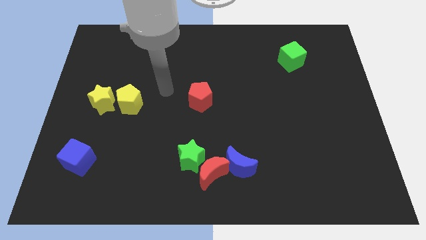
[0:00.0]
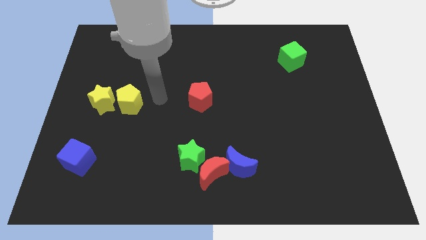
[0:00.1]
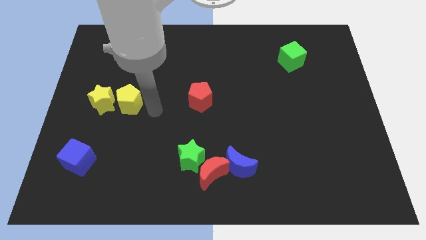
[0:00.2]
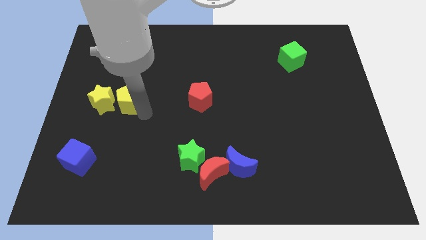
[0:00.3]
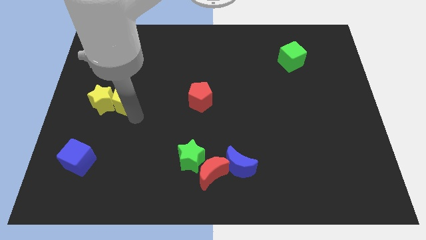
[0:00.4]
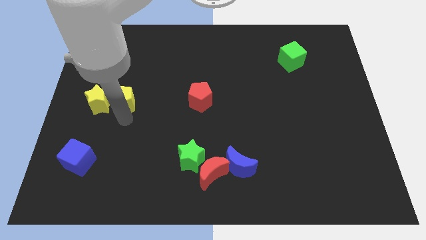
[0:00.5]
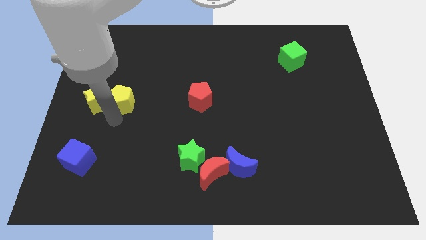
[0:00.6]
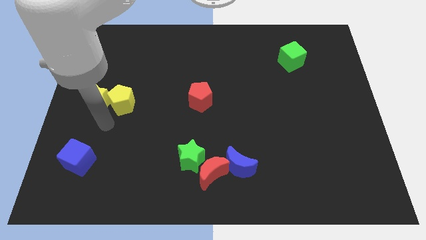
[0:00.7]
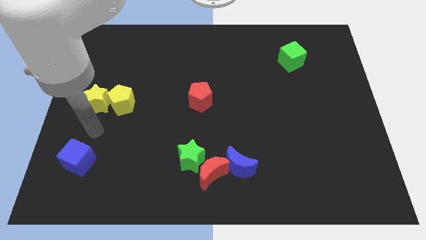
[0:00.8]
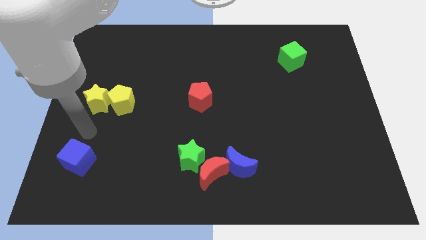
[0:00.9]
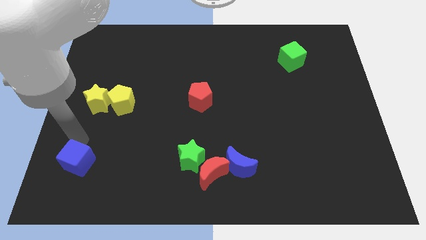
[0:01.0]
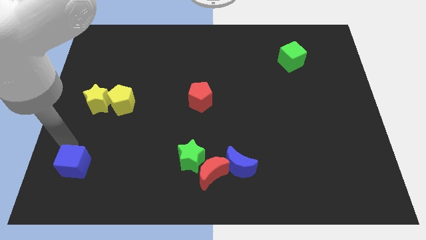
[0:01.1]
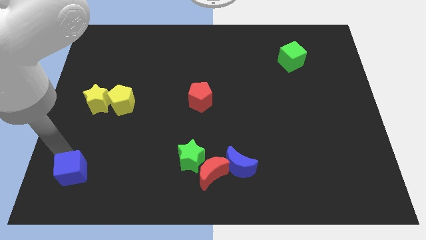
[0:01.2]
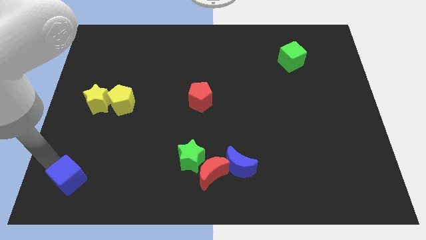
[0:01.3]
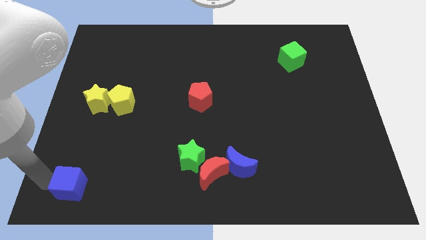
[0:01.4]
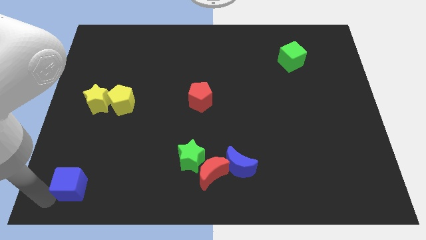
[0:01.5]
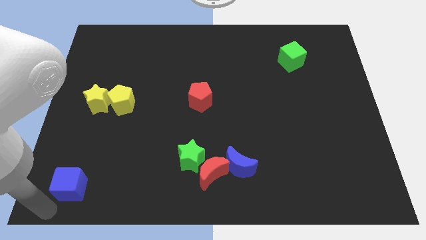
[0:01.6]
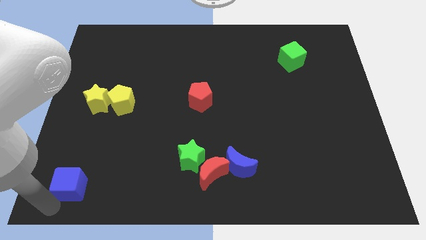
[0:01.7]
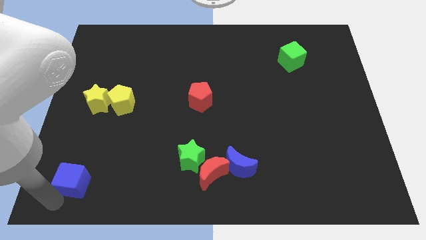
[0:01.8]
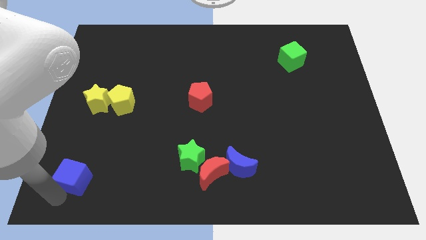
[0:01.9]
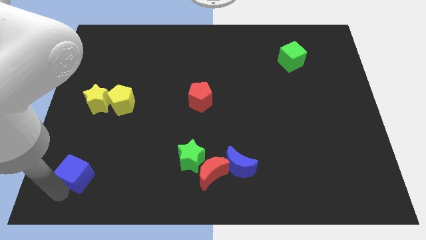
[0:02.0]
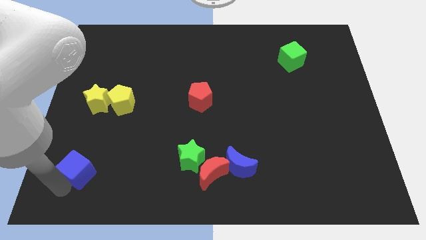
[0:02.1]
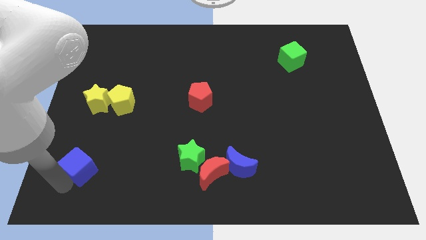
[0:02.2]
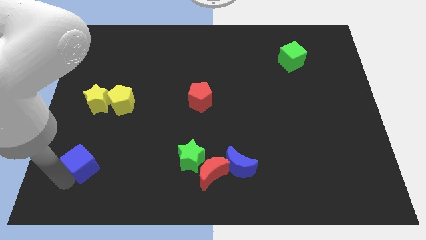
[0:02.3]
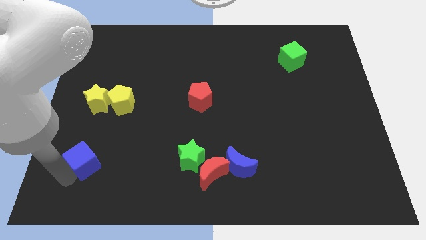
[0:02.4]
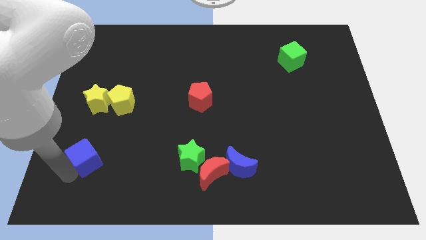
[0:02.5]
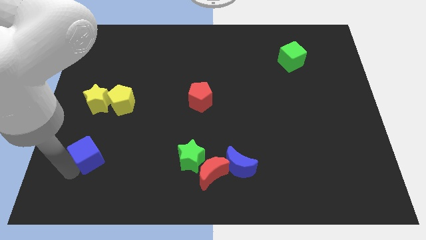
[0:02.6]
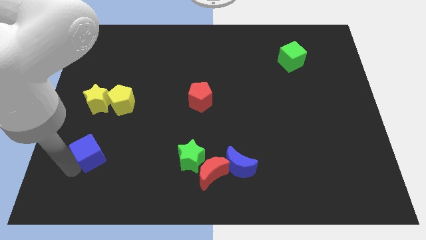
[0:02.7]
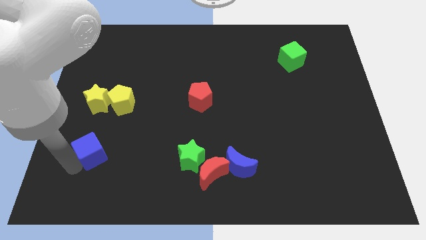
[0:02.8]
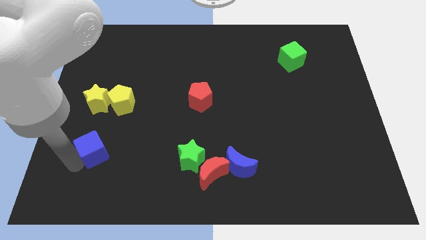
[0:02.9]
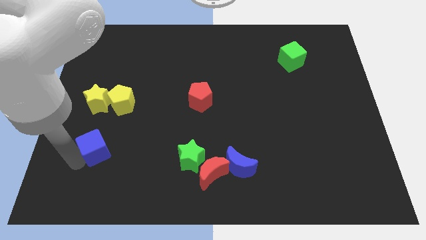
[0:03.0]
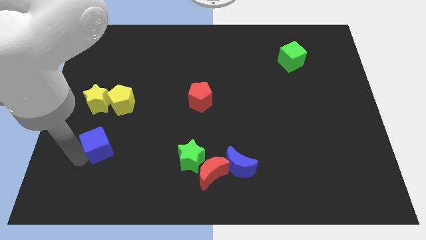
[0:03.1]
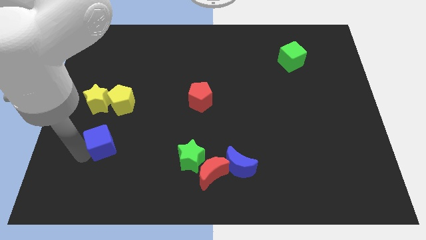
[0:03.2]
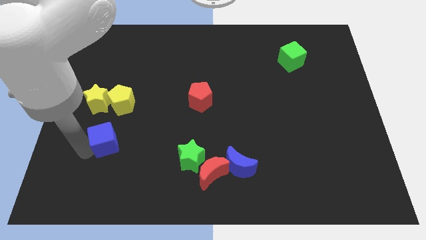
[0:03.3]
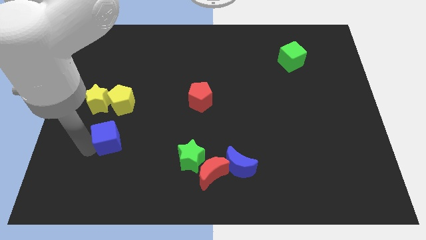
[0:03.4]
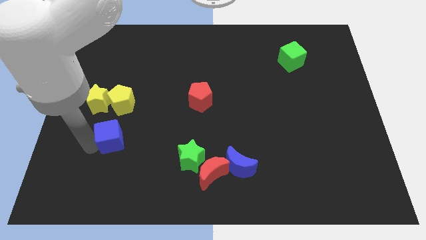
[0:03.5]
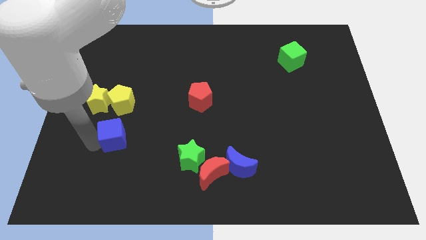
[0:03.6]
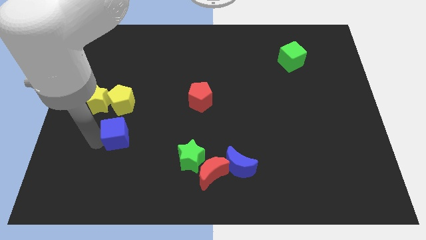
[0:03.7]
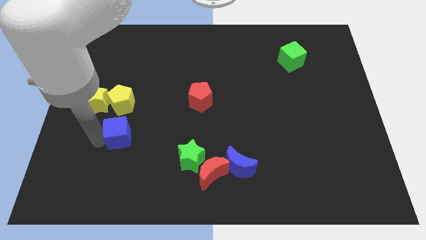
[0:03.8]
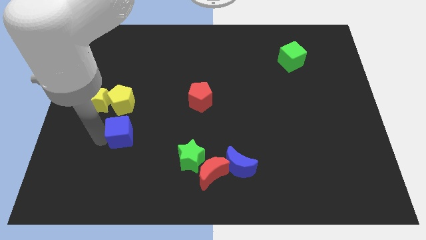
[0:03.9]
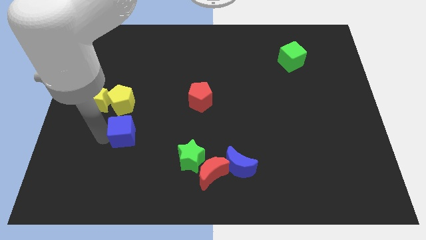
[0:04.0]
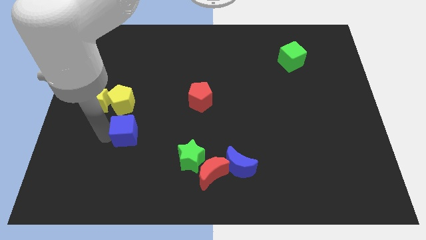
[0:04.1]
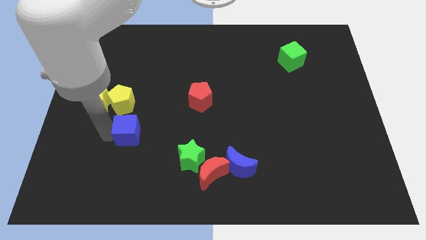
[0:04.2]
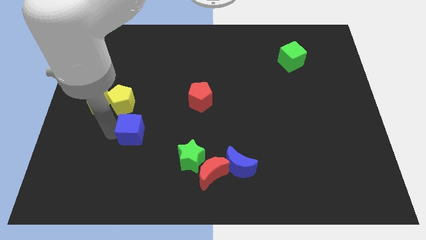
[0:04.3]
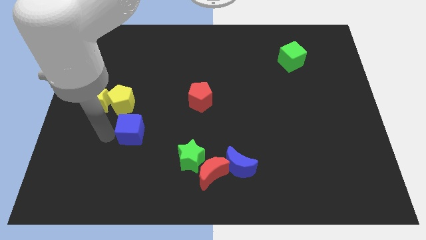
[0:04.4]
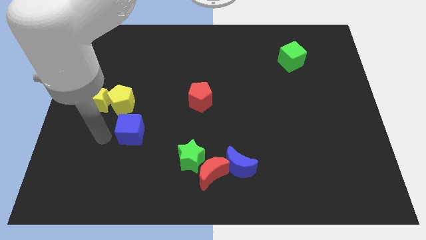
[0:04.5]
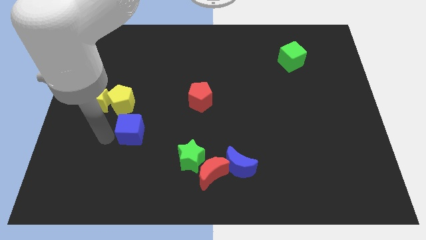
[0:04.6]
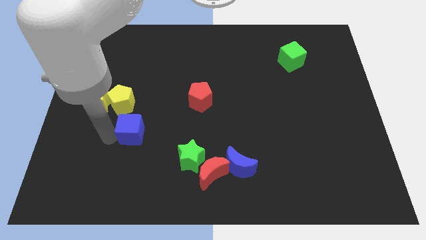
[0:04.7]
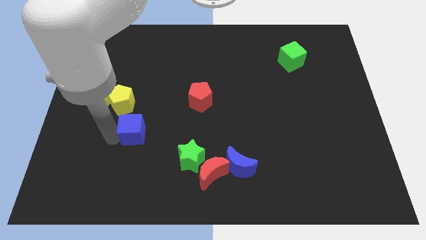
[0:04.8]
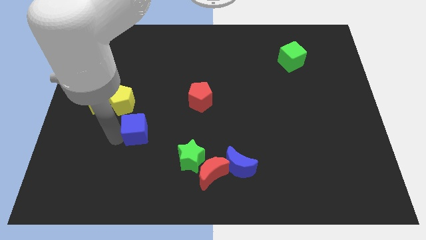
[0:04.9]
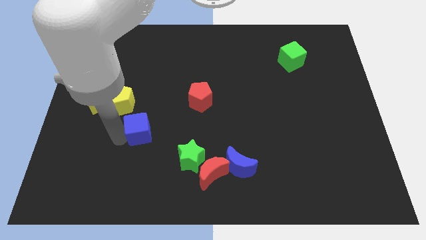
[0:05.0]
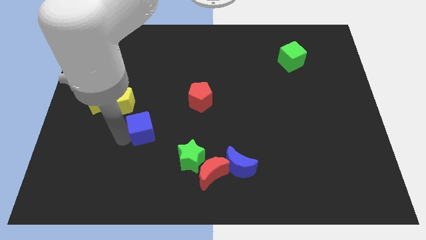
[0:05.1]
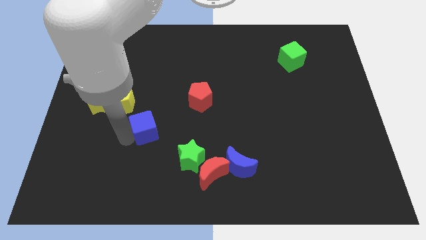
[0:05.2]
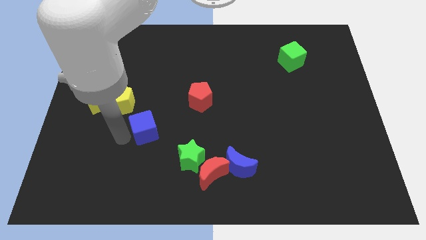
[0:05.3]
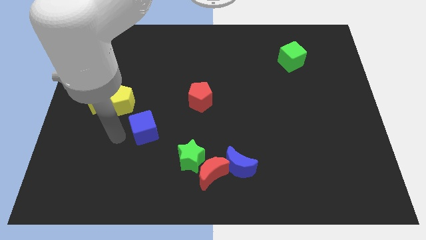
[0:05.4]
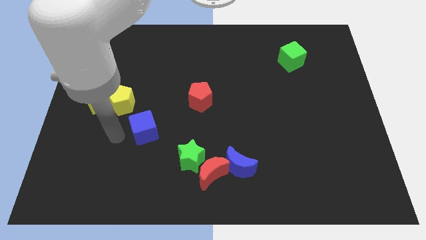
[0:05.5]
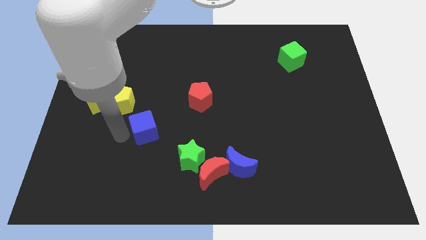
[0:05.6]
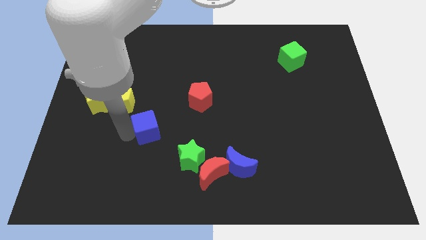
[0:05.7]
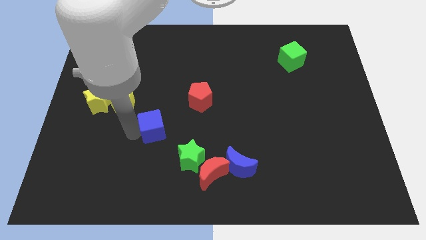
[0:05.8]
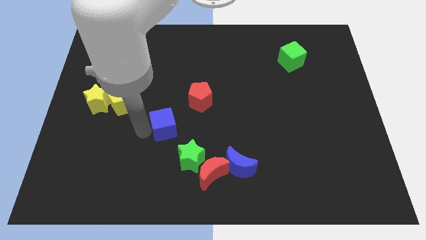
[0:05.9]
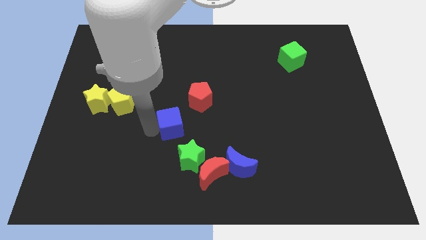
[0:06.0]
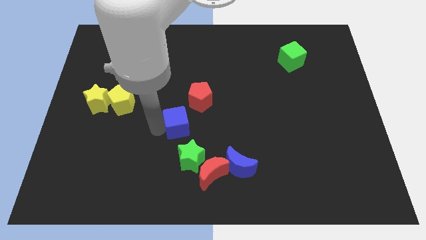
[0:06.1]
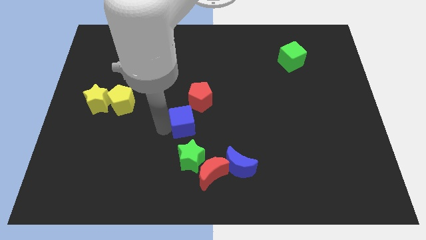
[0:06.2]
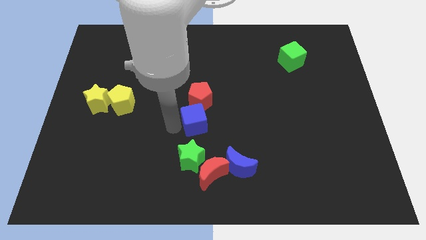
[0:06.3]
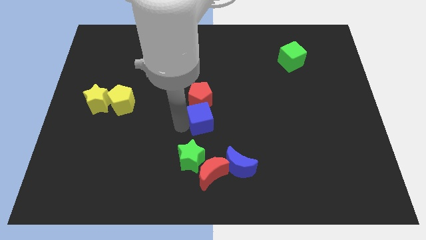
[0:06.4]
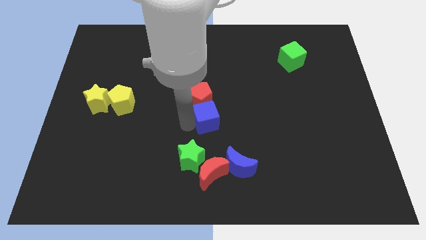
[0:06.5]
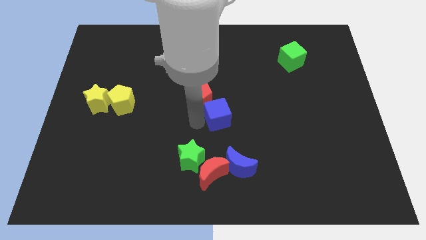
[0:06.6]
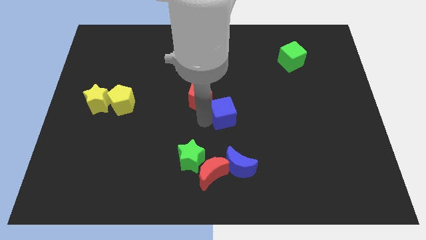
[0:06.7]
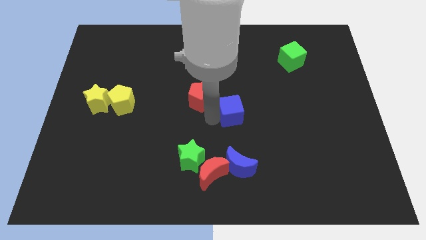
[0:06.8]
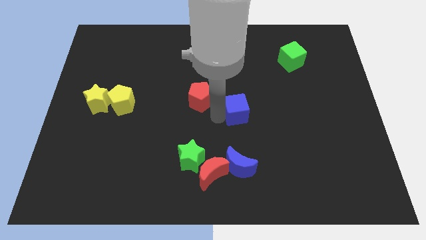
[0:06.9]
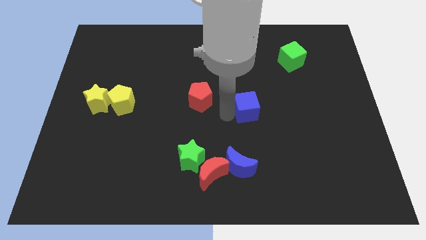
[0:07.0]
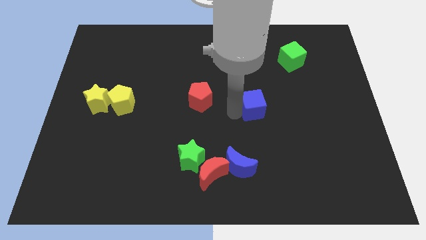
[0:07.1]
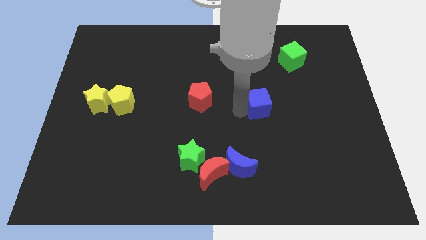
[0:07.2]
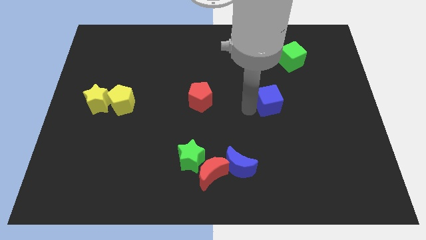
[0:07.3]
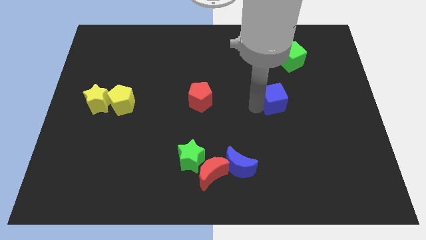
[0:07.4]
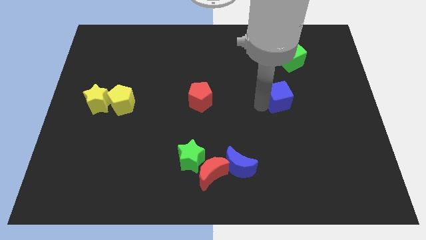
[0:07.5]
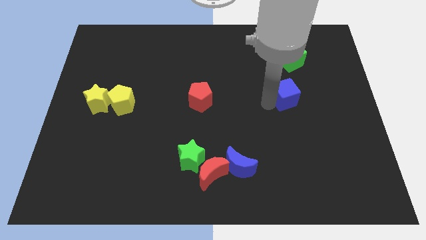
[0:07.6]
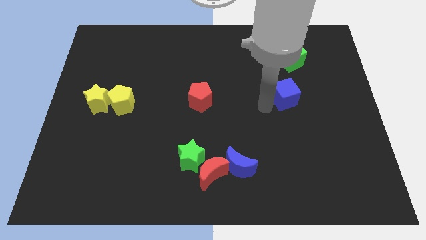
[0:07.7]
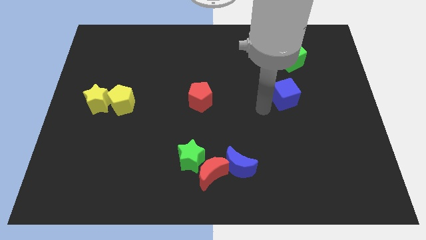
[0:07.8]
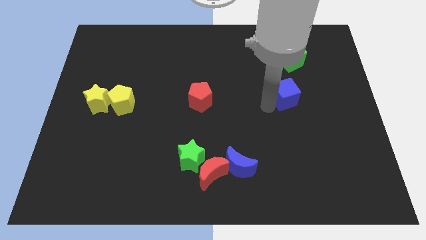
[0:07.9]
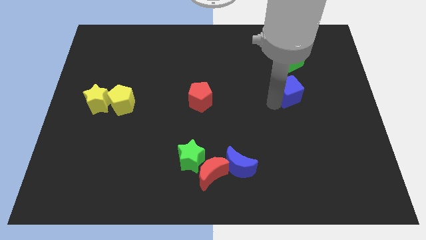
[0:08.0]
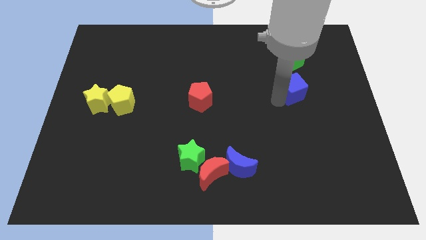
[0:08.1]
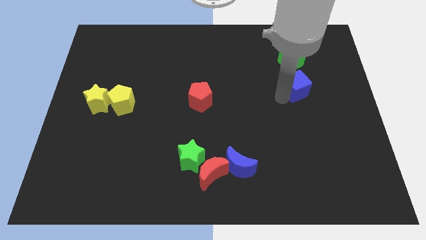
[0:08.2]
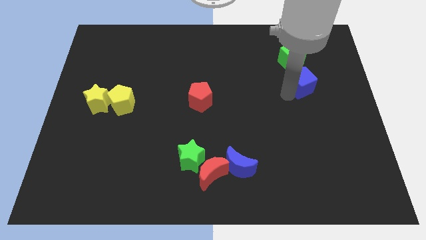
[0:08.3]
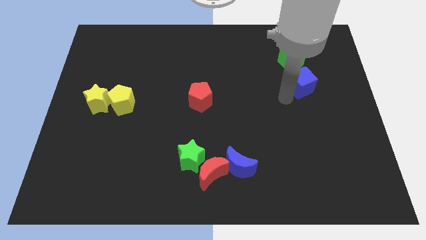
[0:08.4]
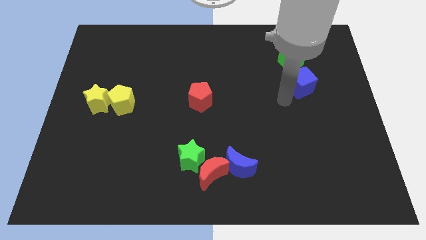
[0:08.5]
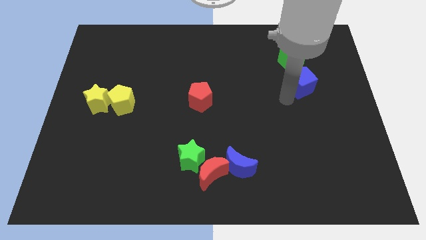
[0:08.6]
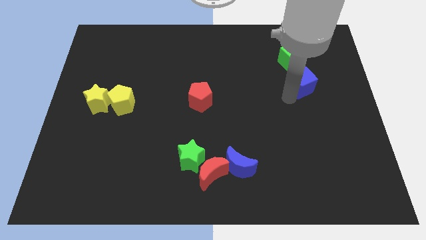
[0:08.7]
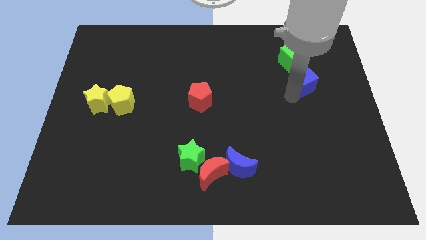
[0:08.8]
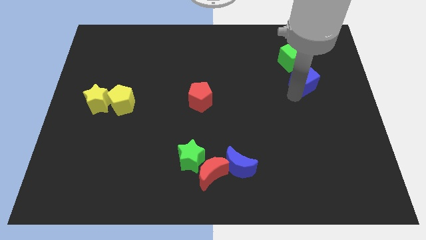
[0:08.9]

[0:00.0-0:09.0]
push the blue cube to the bottom right side of the green cube
